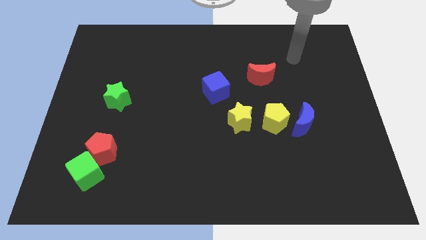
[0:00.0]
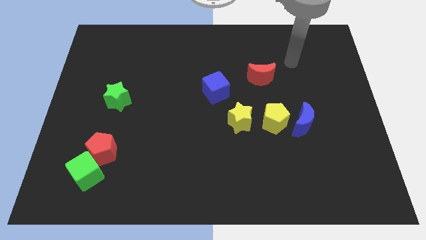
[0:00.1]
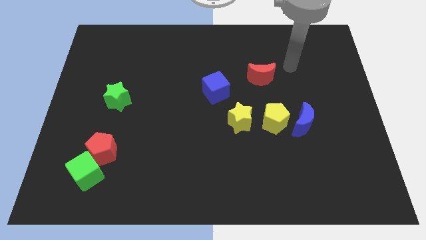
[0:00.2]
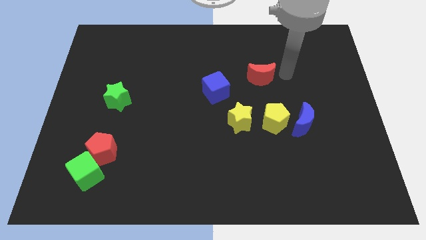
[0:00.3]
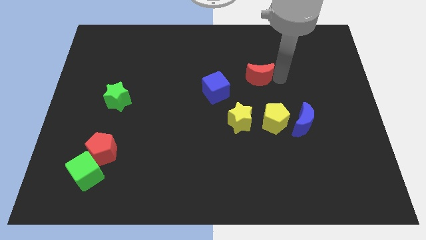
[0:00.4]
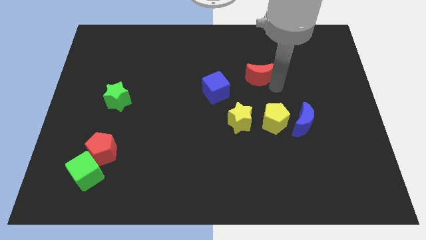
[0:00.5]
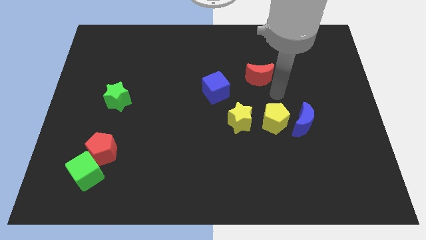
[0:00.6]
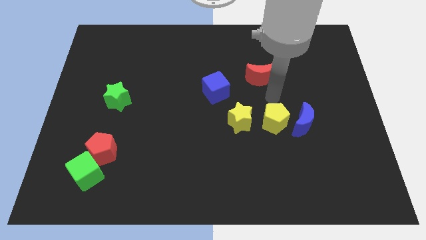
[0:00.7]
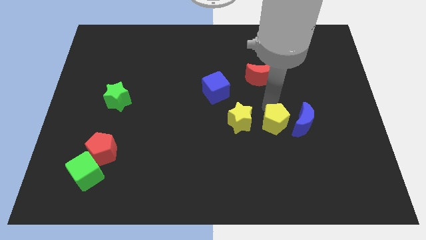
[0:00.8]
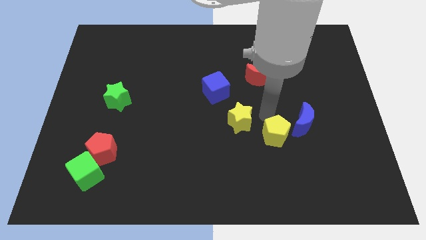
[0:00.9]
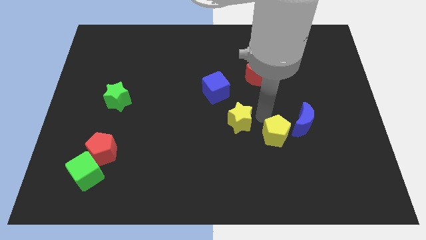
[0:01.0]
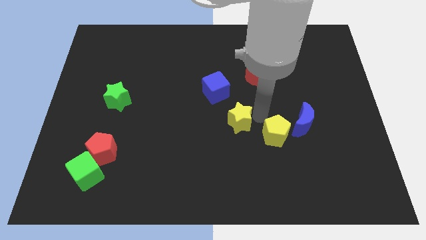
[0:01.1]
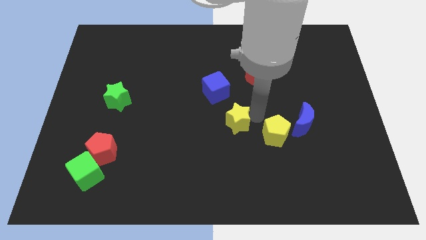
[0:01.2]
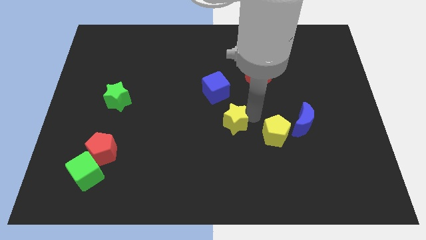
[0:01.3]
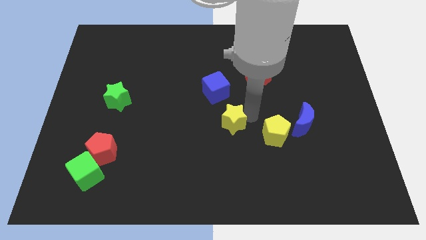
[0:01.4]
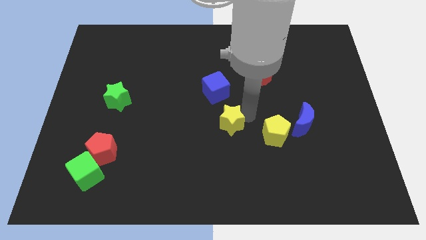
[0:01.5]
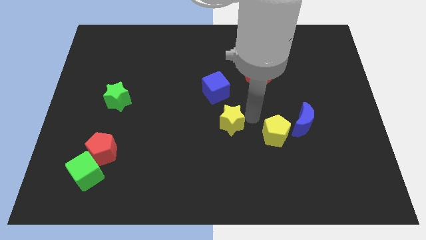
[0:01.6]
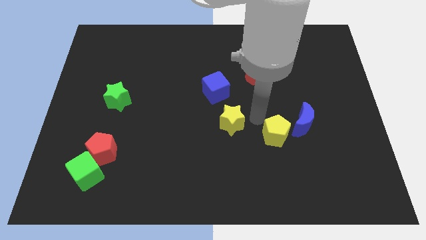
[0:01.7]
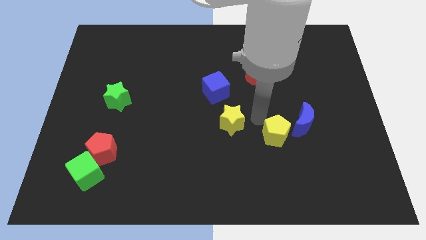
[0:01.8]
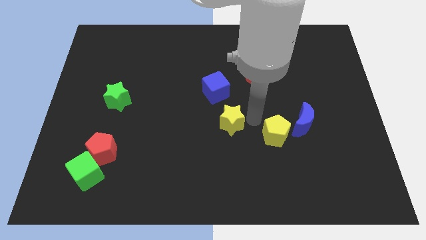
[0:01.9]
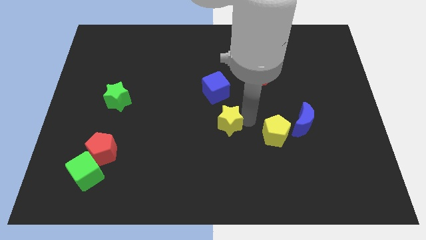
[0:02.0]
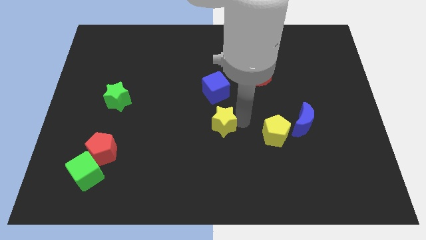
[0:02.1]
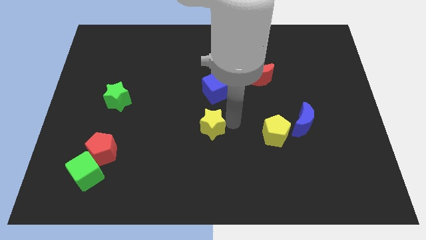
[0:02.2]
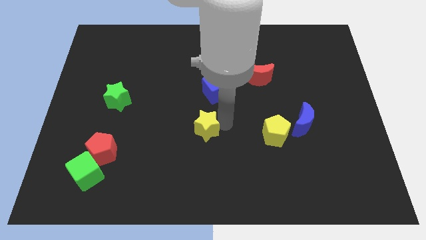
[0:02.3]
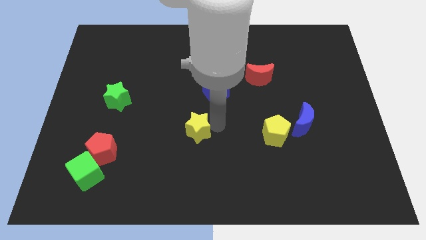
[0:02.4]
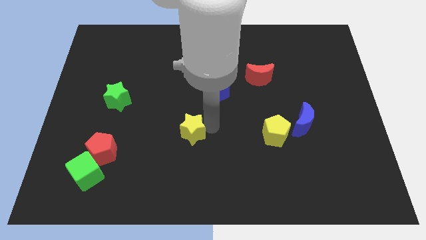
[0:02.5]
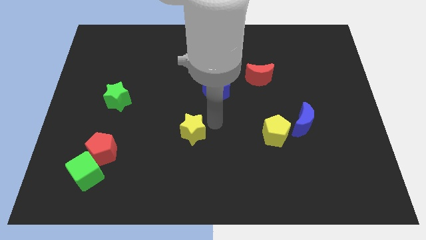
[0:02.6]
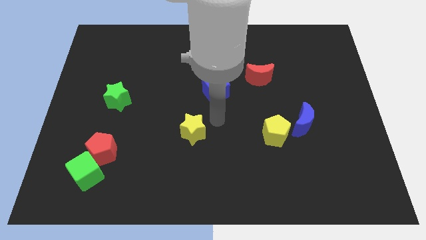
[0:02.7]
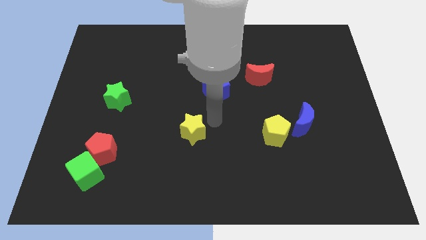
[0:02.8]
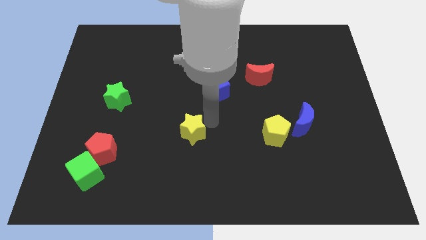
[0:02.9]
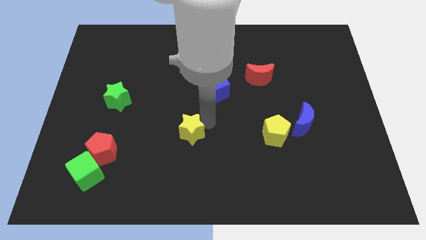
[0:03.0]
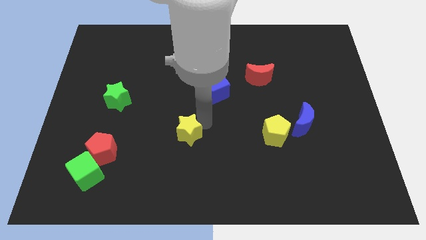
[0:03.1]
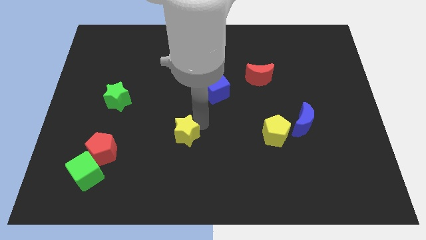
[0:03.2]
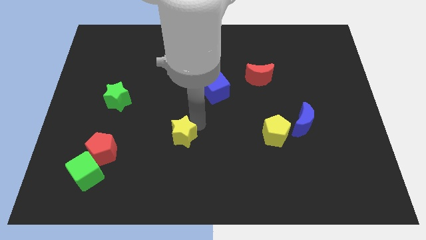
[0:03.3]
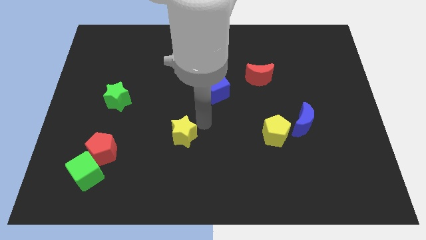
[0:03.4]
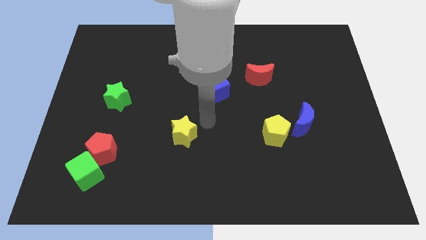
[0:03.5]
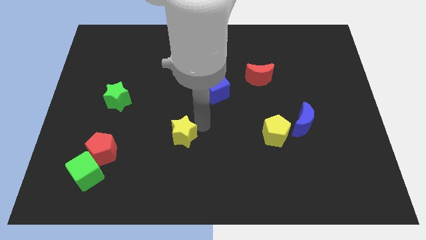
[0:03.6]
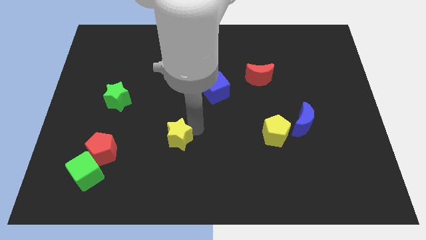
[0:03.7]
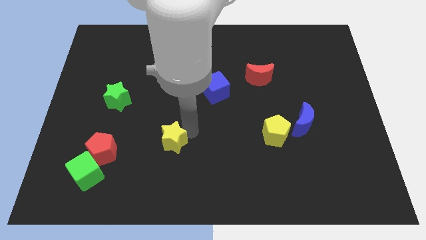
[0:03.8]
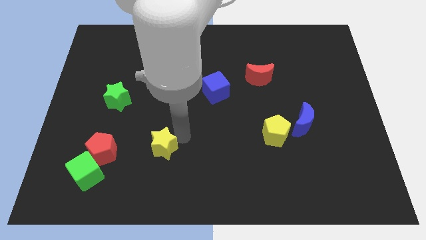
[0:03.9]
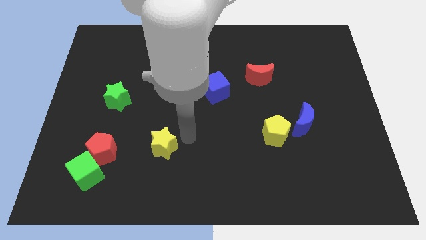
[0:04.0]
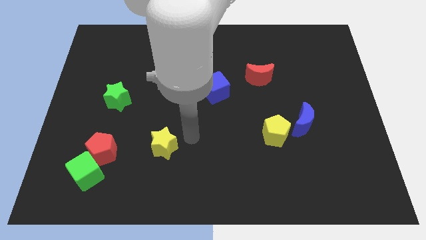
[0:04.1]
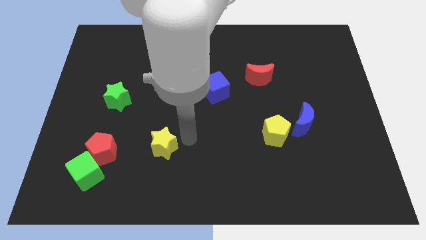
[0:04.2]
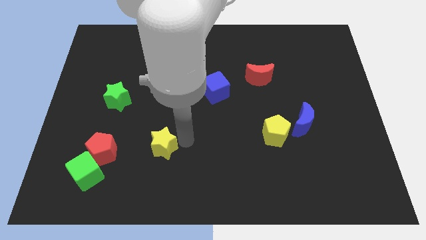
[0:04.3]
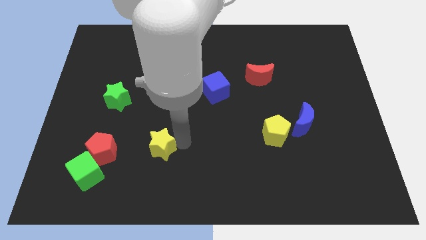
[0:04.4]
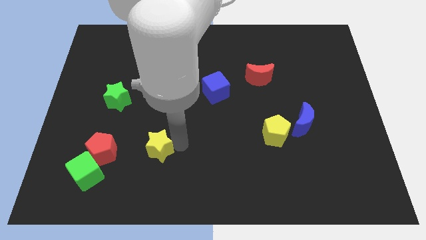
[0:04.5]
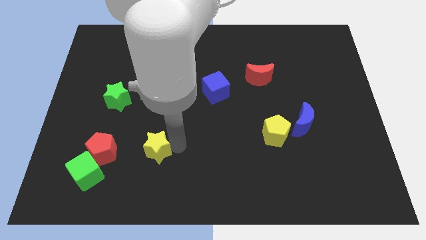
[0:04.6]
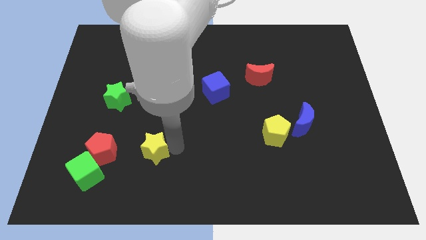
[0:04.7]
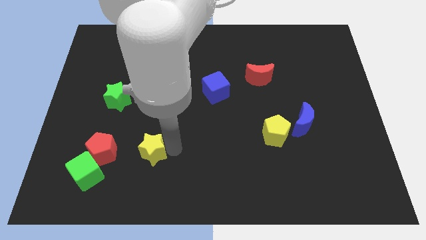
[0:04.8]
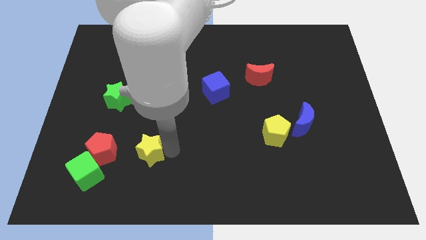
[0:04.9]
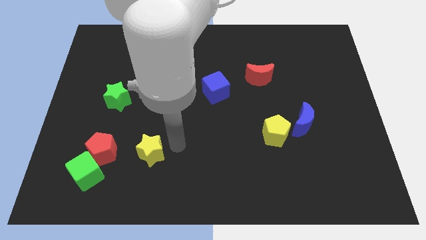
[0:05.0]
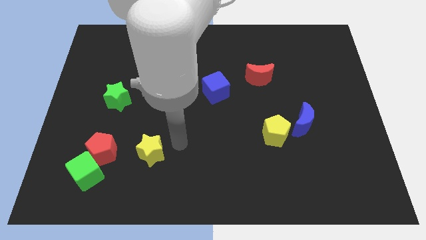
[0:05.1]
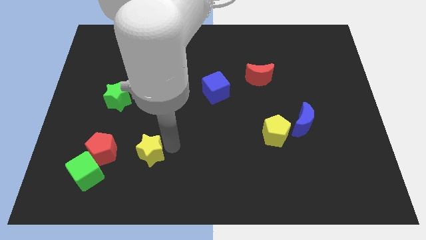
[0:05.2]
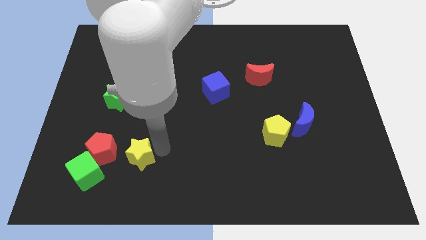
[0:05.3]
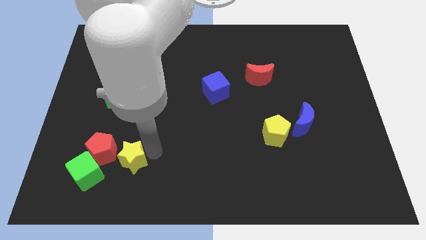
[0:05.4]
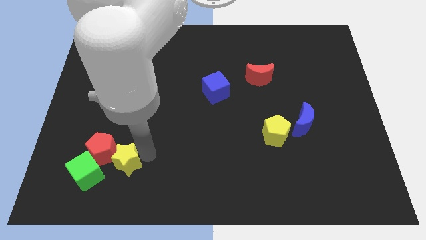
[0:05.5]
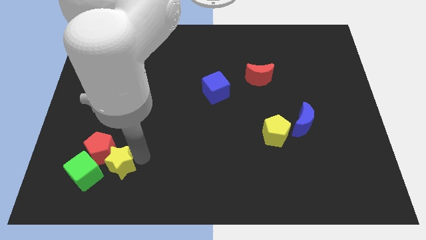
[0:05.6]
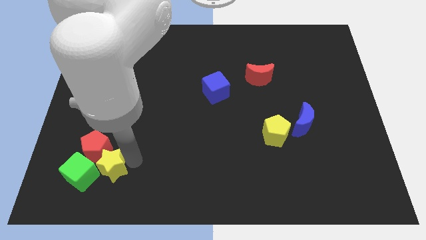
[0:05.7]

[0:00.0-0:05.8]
slide the yellow star next to the green cube

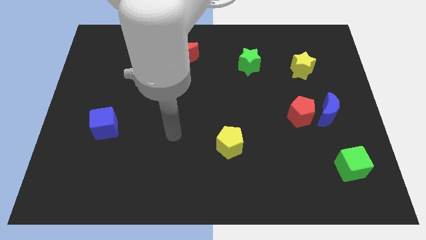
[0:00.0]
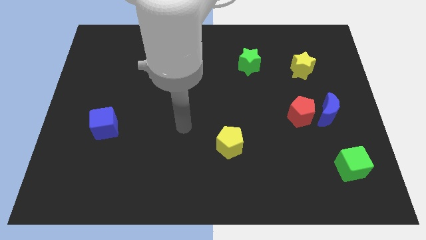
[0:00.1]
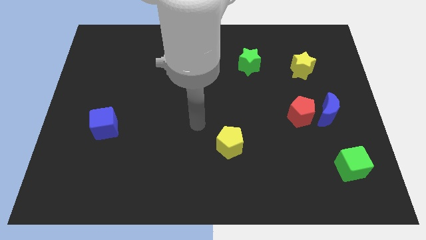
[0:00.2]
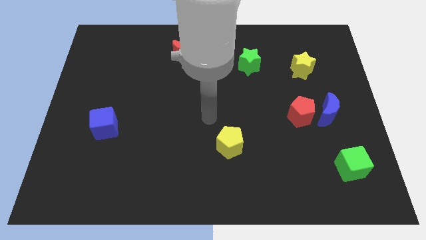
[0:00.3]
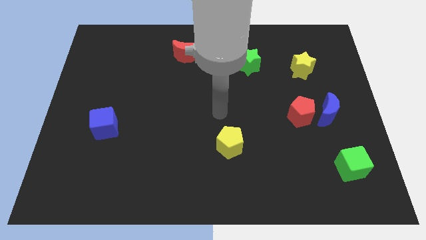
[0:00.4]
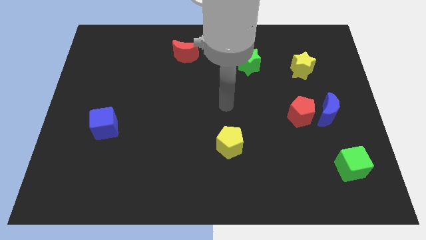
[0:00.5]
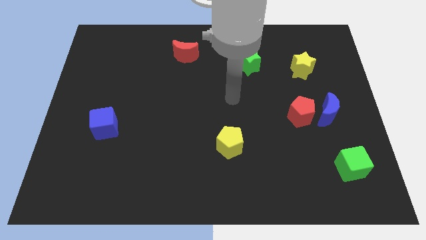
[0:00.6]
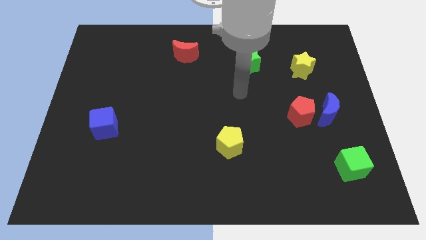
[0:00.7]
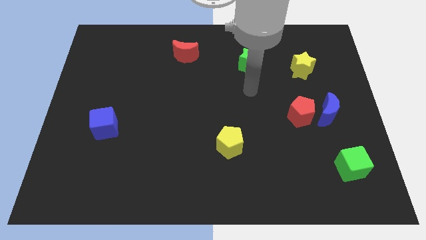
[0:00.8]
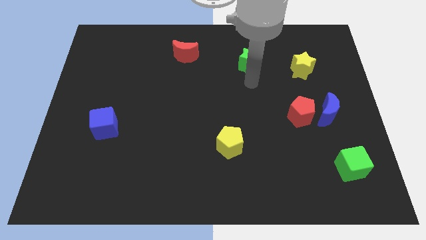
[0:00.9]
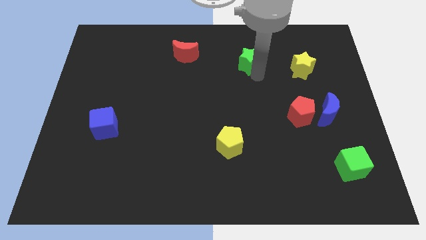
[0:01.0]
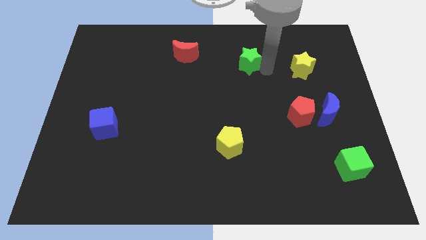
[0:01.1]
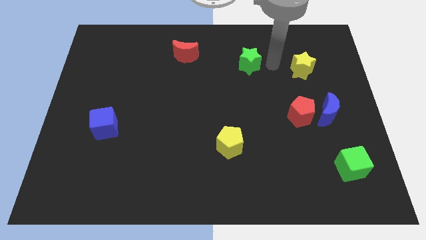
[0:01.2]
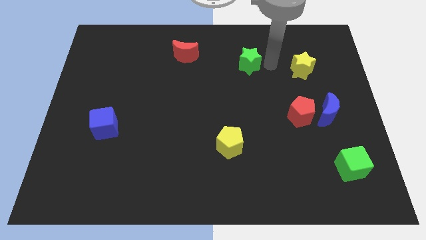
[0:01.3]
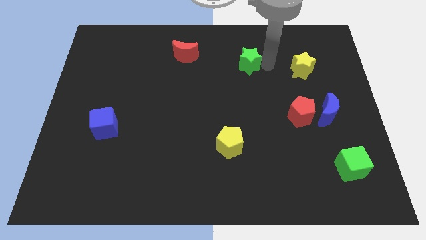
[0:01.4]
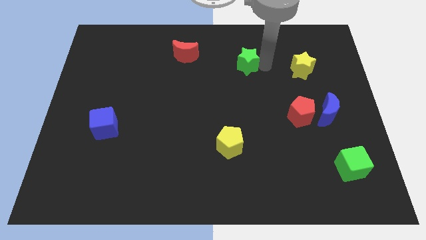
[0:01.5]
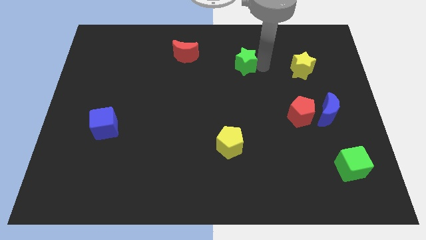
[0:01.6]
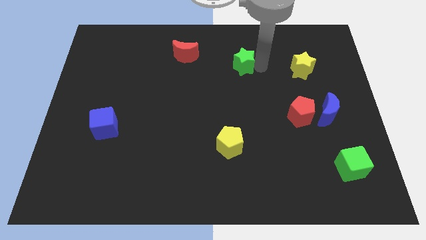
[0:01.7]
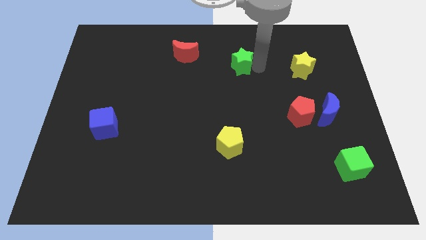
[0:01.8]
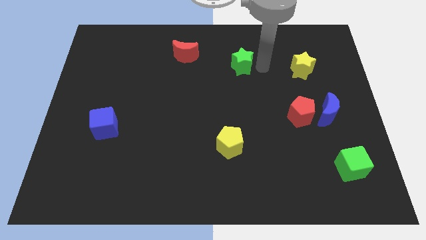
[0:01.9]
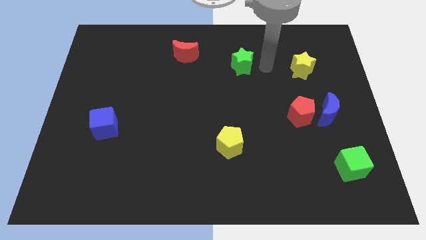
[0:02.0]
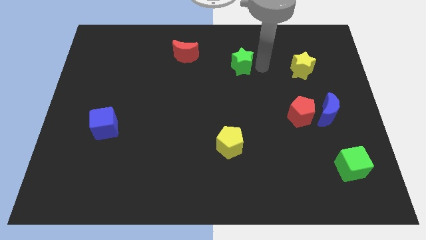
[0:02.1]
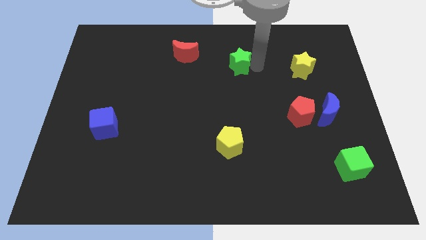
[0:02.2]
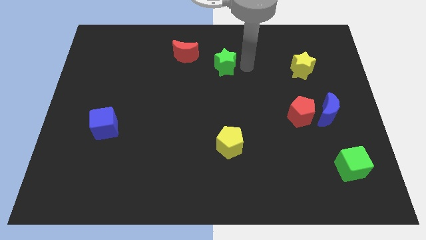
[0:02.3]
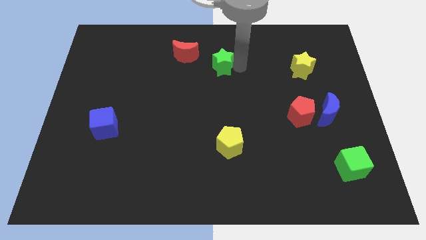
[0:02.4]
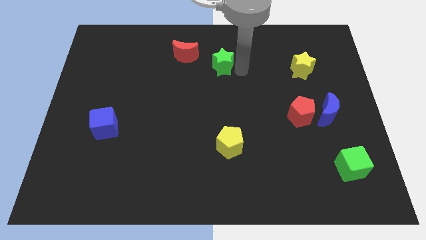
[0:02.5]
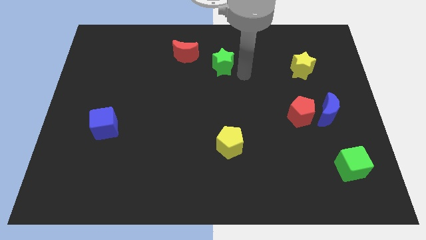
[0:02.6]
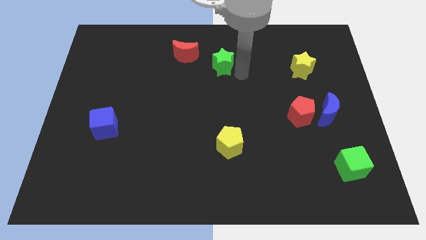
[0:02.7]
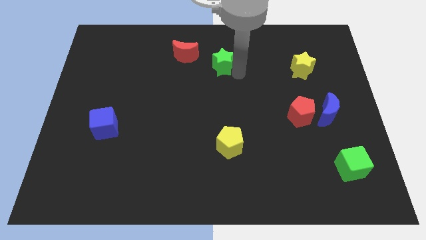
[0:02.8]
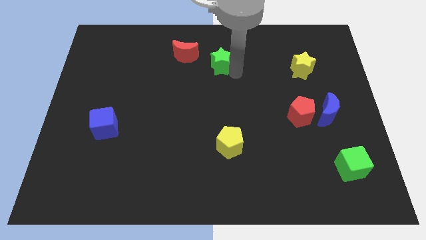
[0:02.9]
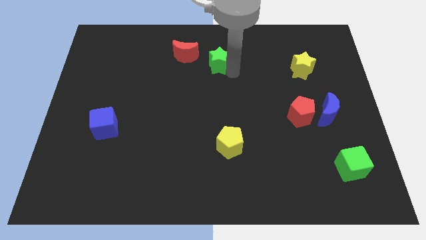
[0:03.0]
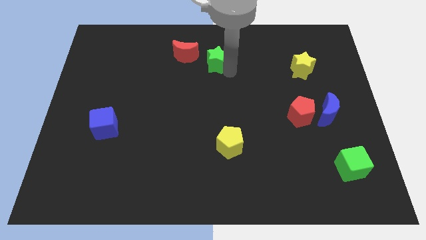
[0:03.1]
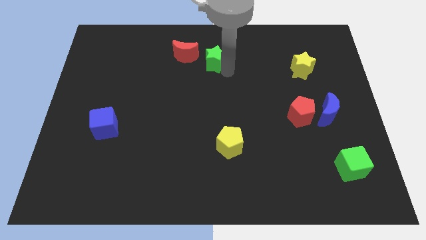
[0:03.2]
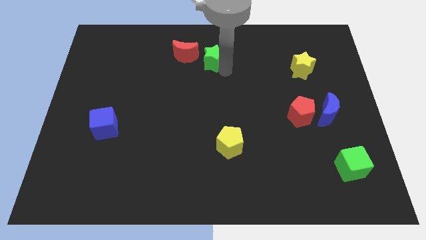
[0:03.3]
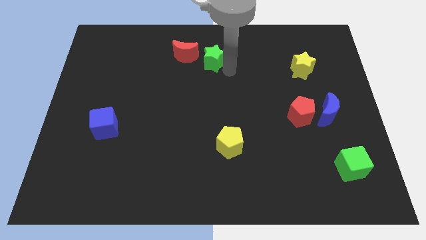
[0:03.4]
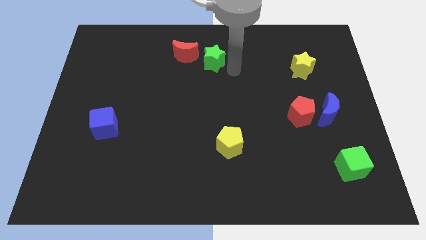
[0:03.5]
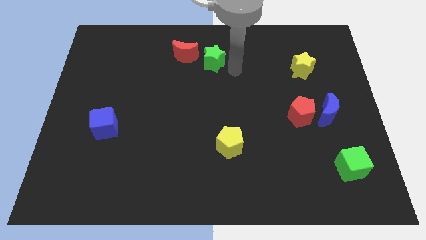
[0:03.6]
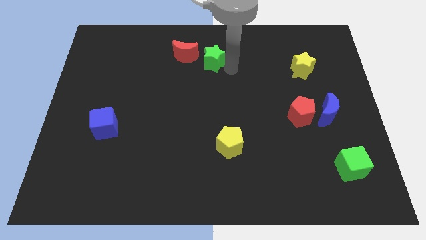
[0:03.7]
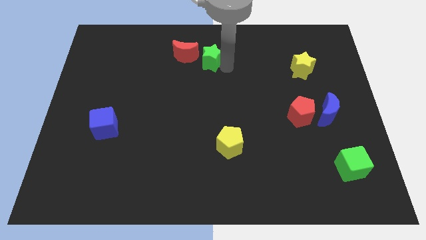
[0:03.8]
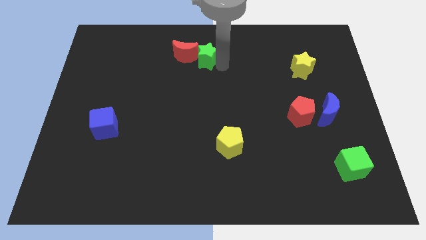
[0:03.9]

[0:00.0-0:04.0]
put the green star close to the red moon
